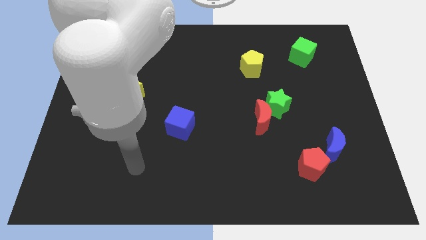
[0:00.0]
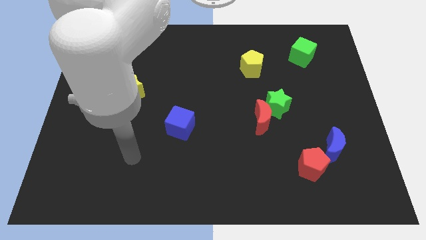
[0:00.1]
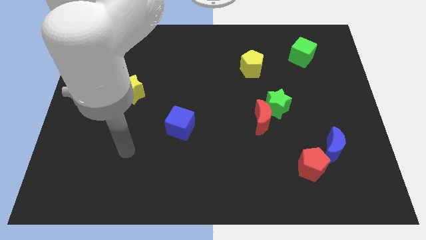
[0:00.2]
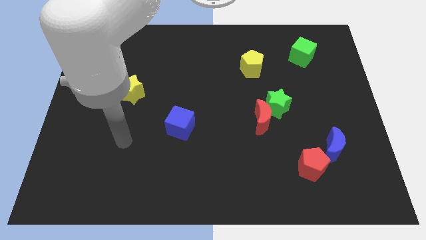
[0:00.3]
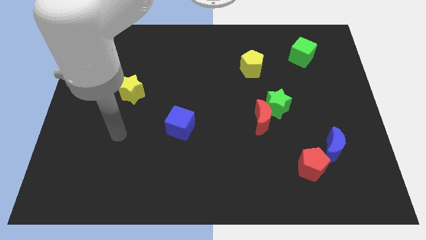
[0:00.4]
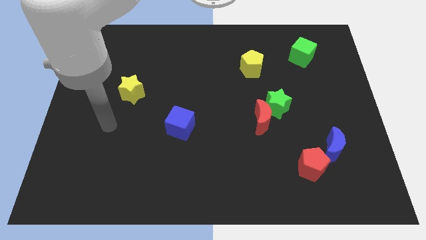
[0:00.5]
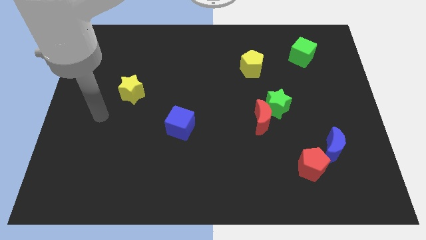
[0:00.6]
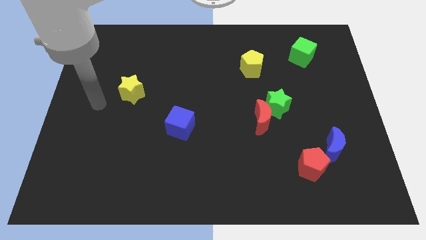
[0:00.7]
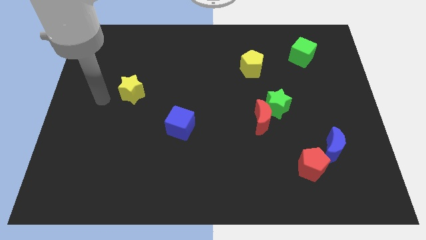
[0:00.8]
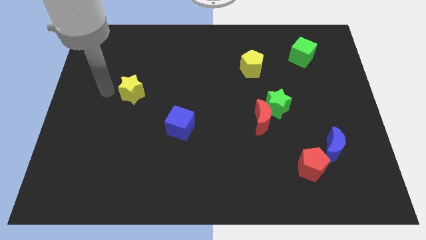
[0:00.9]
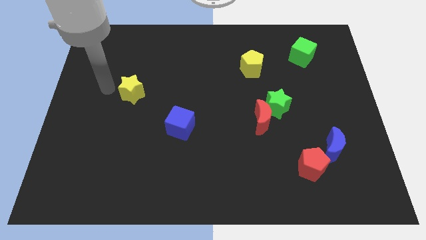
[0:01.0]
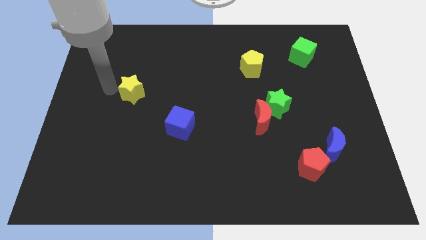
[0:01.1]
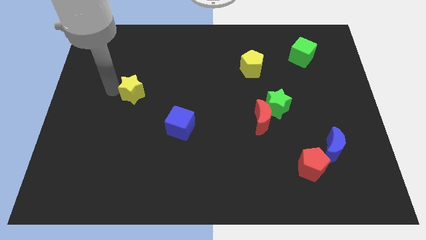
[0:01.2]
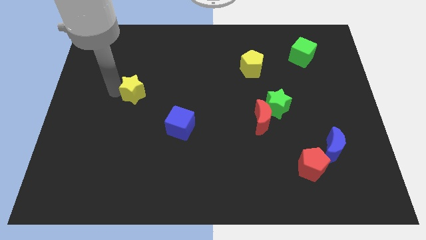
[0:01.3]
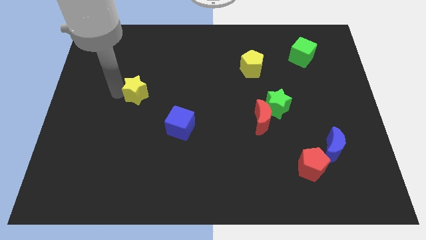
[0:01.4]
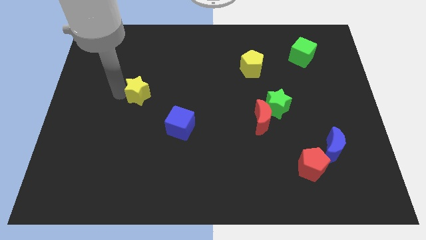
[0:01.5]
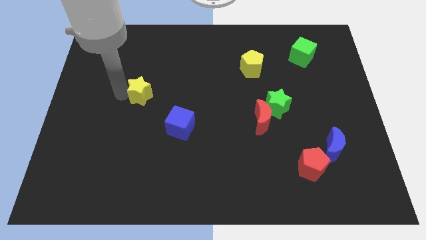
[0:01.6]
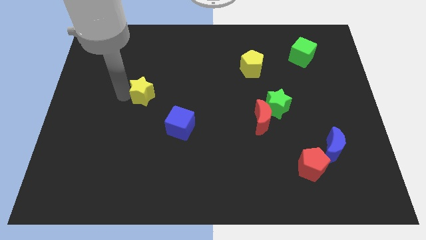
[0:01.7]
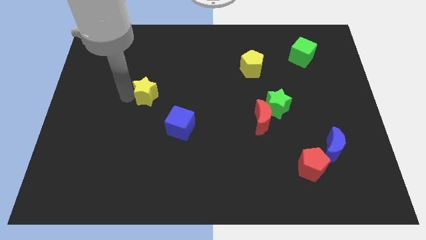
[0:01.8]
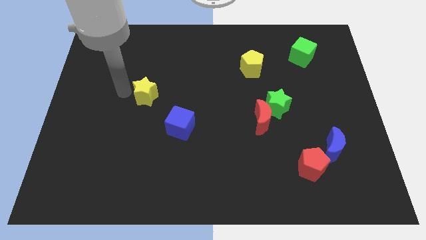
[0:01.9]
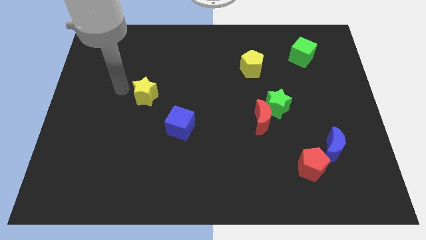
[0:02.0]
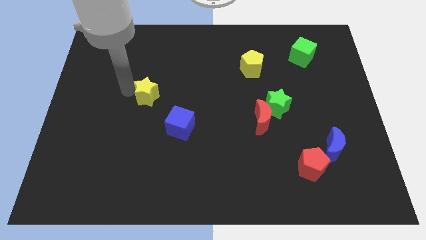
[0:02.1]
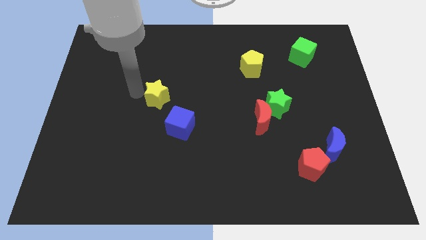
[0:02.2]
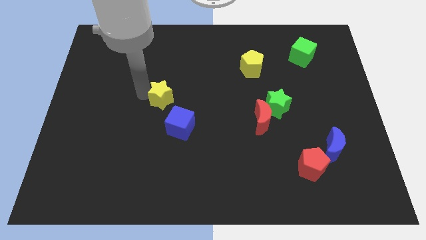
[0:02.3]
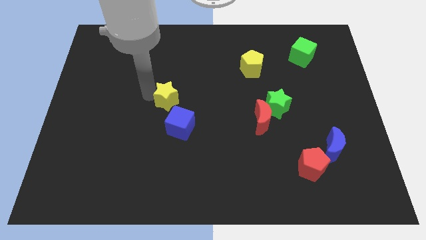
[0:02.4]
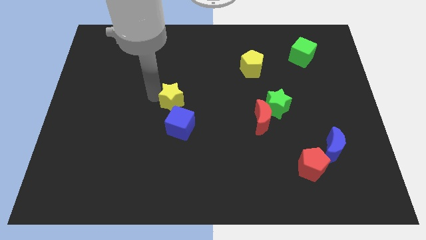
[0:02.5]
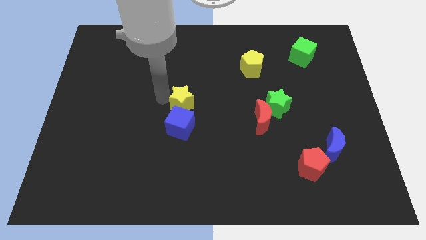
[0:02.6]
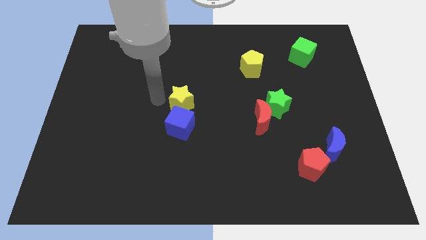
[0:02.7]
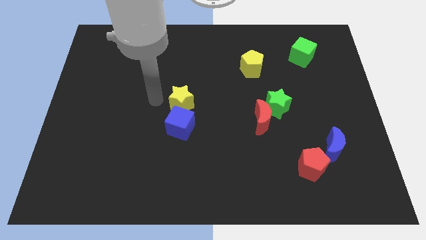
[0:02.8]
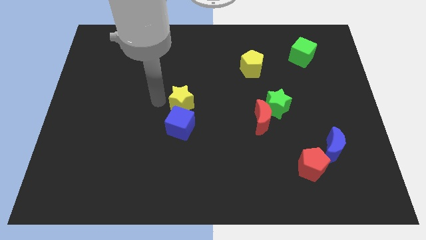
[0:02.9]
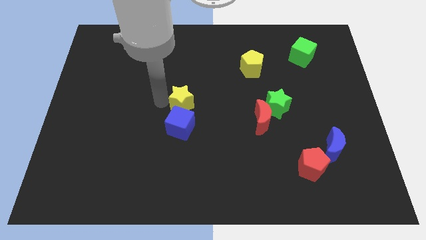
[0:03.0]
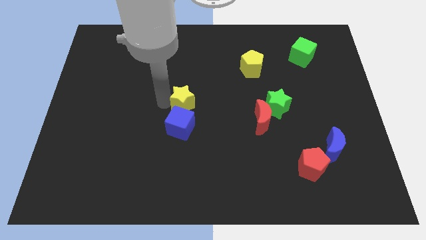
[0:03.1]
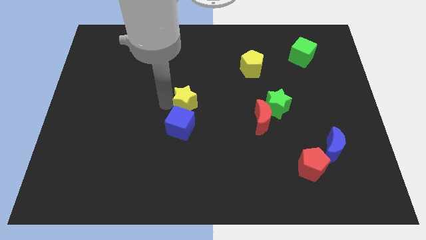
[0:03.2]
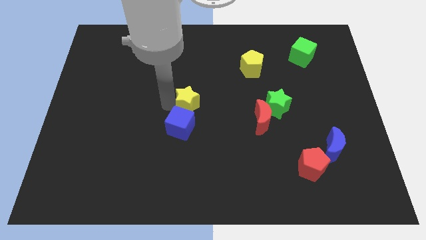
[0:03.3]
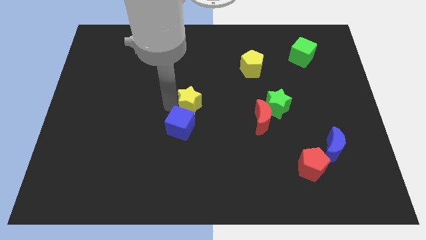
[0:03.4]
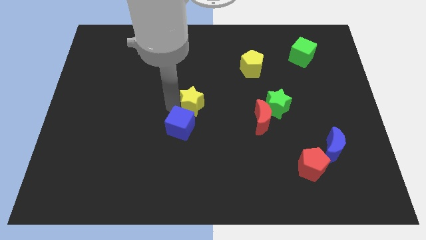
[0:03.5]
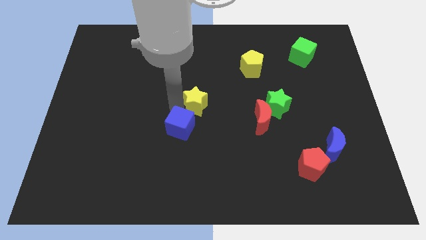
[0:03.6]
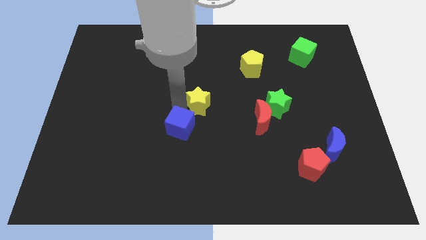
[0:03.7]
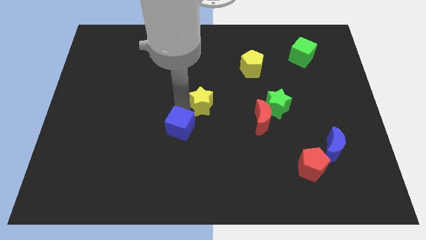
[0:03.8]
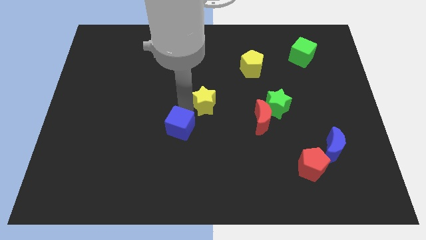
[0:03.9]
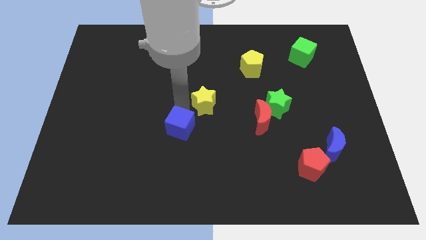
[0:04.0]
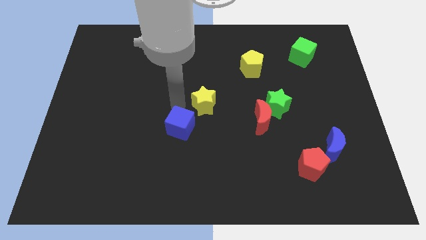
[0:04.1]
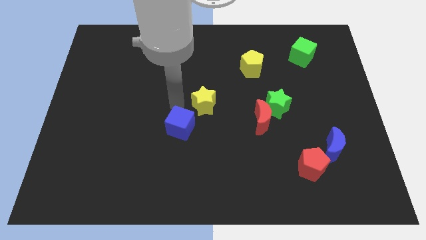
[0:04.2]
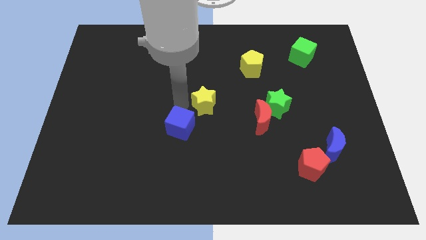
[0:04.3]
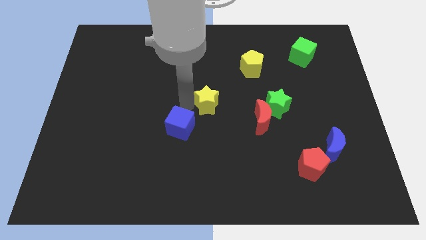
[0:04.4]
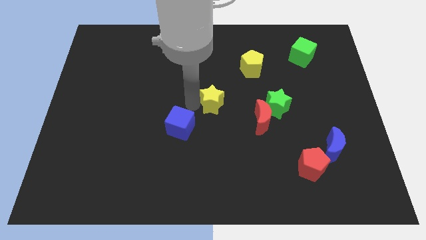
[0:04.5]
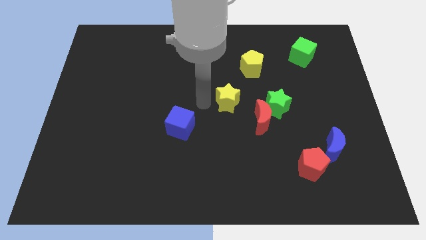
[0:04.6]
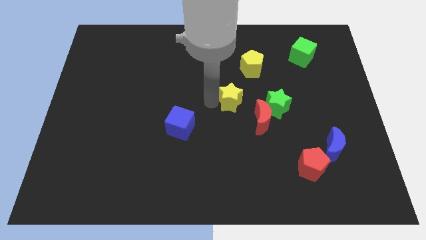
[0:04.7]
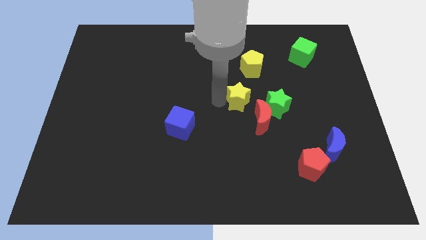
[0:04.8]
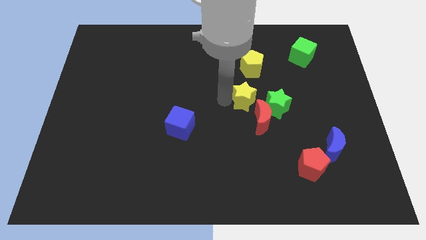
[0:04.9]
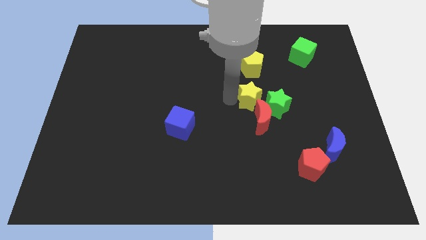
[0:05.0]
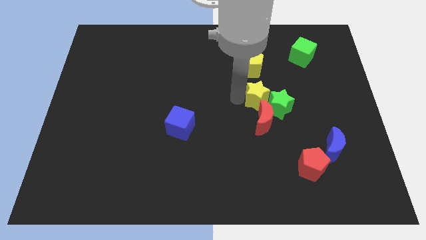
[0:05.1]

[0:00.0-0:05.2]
slide the yellow star close to the green star

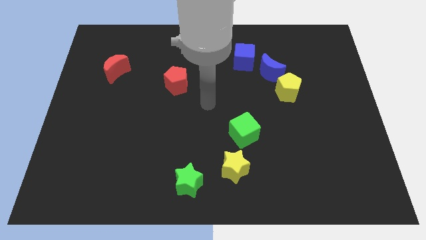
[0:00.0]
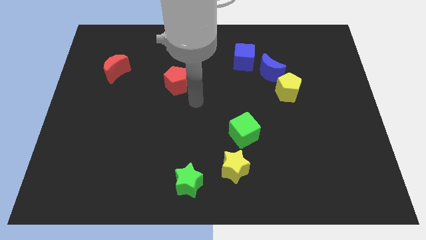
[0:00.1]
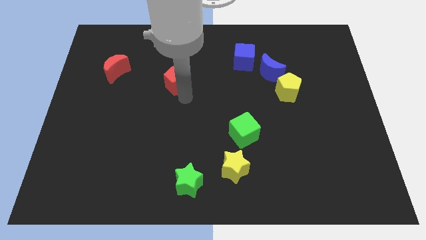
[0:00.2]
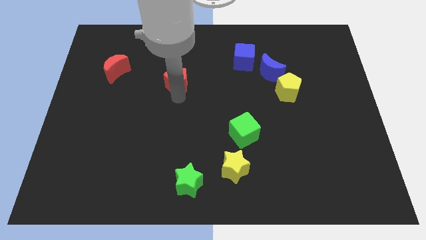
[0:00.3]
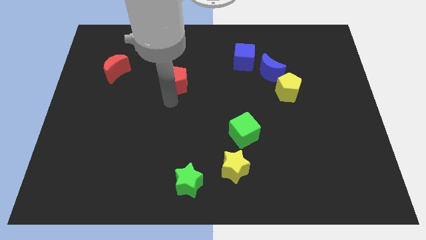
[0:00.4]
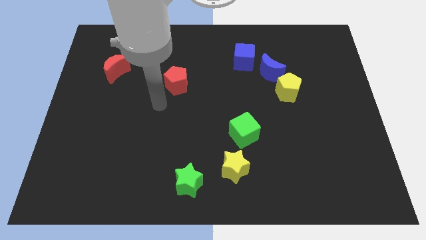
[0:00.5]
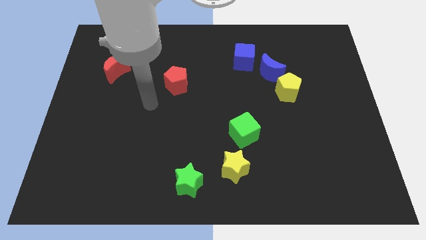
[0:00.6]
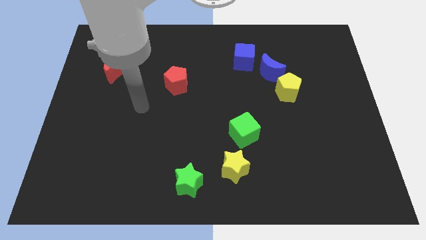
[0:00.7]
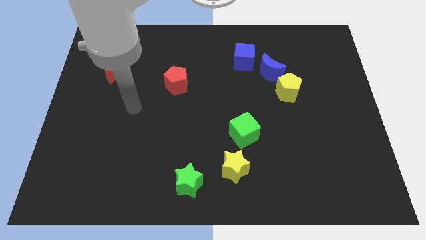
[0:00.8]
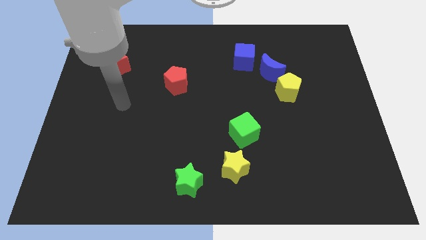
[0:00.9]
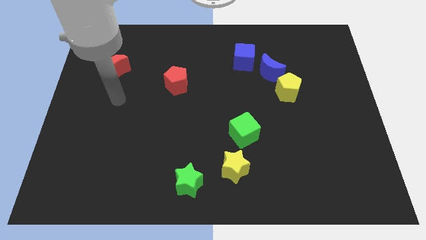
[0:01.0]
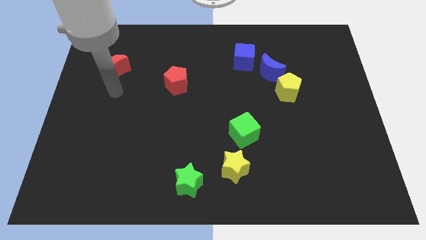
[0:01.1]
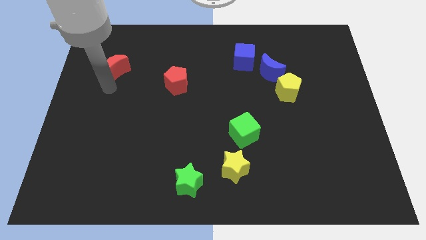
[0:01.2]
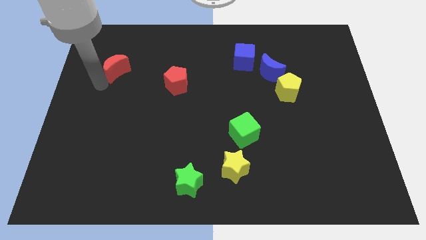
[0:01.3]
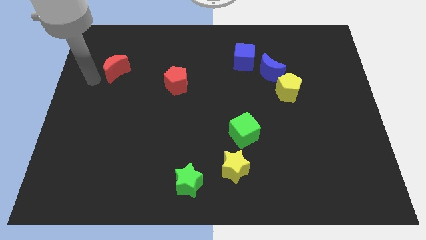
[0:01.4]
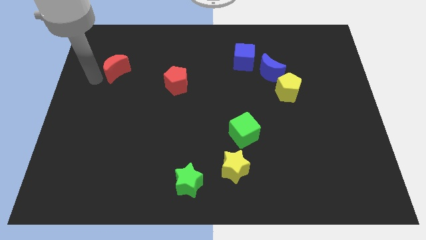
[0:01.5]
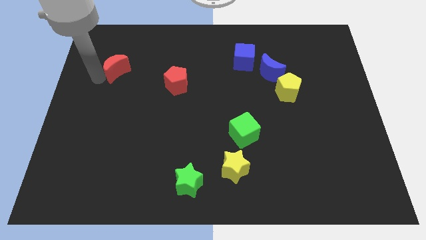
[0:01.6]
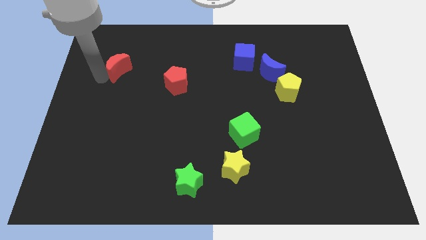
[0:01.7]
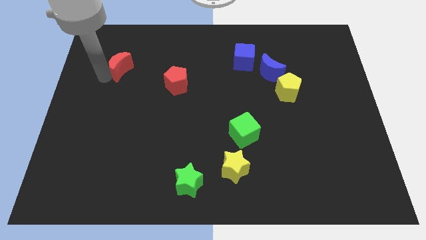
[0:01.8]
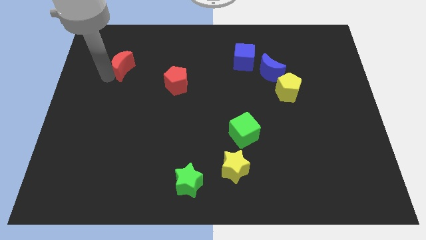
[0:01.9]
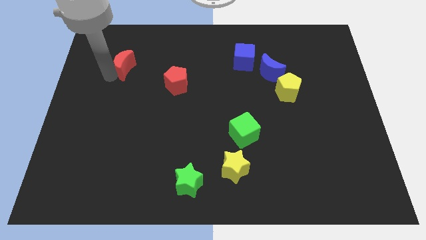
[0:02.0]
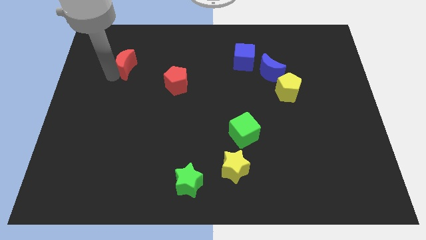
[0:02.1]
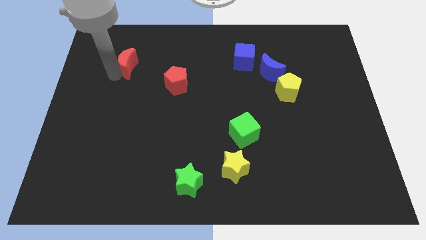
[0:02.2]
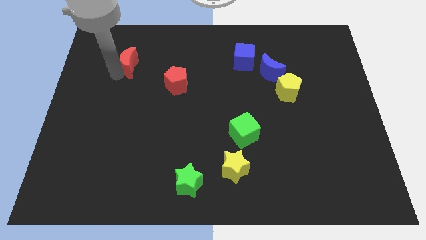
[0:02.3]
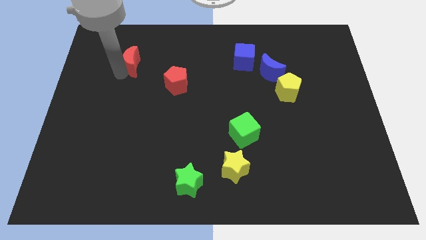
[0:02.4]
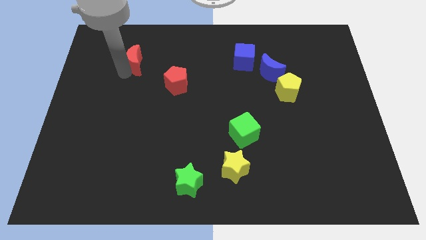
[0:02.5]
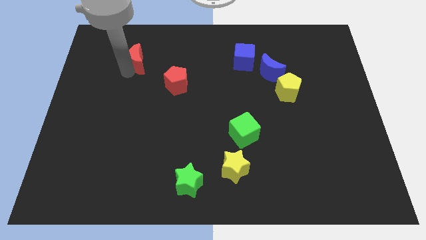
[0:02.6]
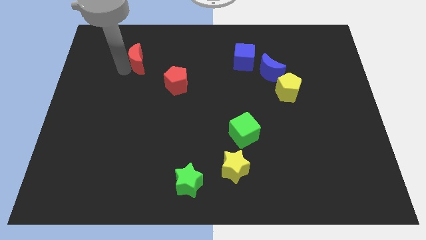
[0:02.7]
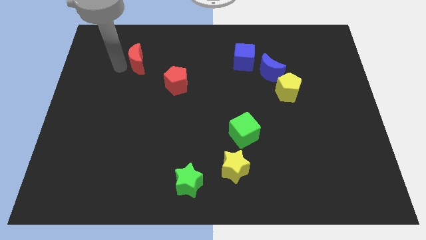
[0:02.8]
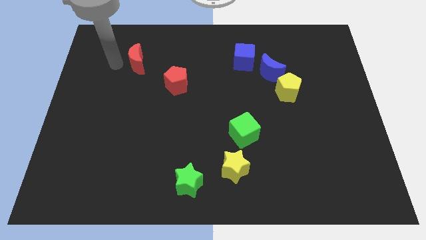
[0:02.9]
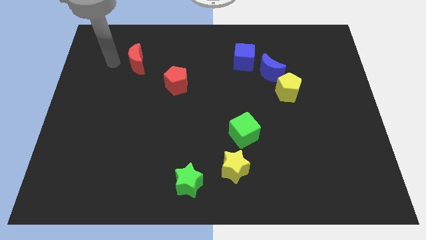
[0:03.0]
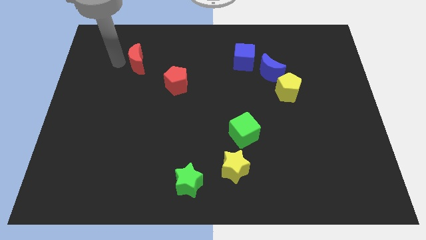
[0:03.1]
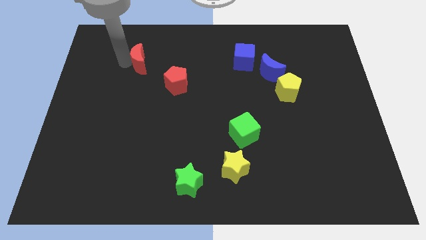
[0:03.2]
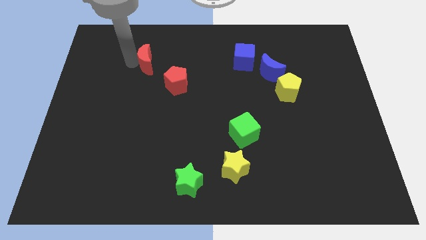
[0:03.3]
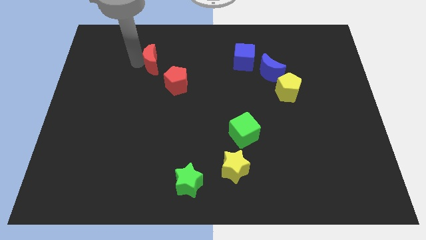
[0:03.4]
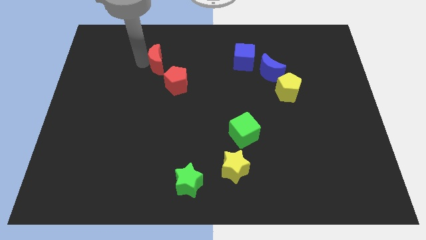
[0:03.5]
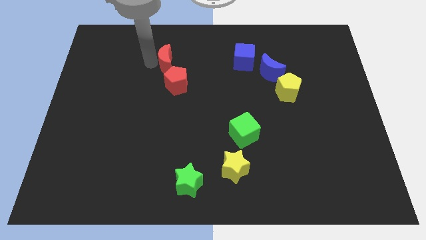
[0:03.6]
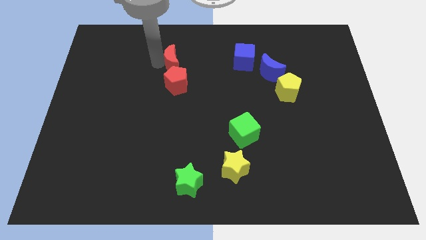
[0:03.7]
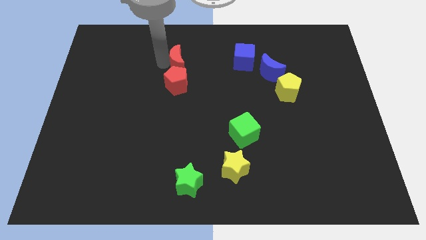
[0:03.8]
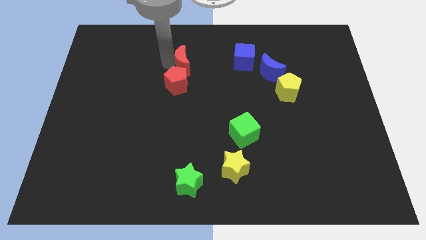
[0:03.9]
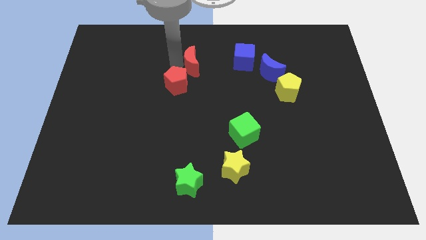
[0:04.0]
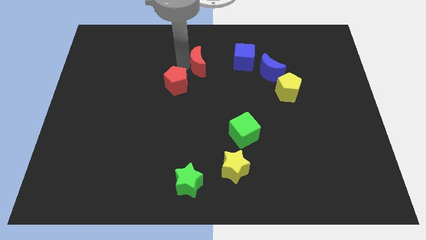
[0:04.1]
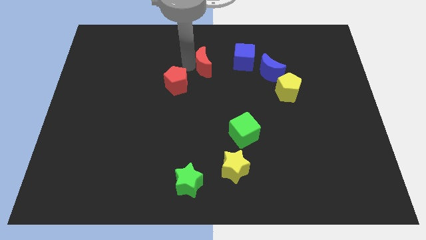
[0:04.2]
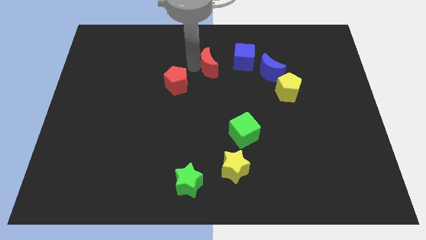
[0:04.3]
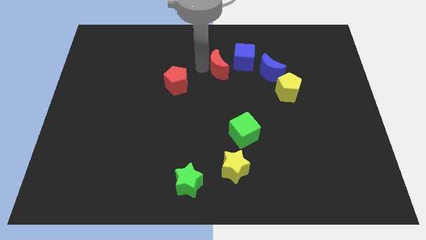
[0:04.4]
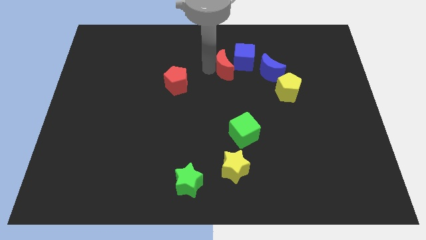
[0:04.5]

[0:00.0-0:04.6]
put the red moon close to the blue cube
